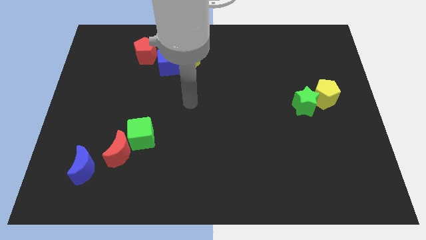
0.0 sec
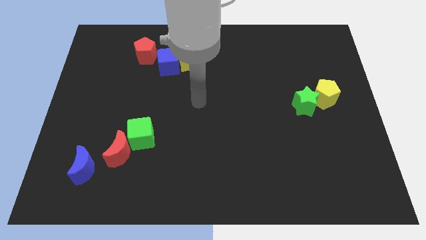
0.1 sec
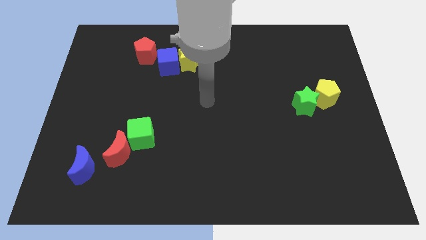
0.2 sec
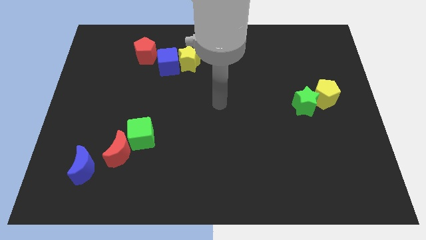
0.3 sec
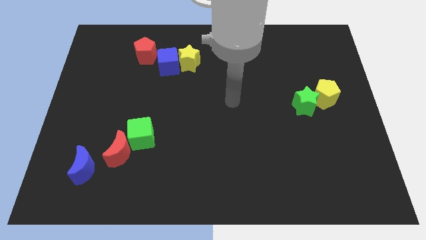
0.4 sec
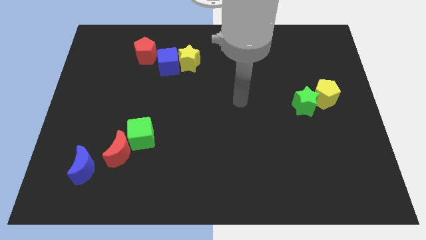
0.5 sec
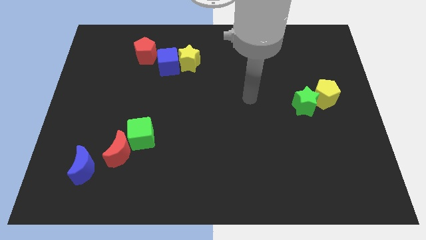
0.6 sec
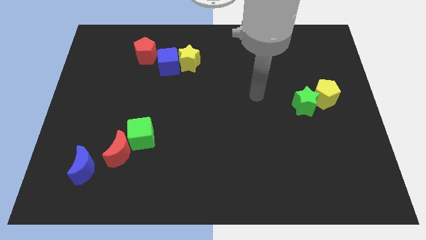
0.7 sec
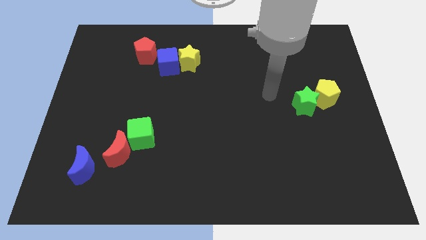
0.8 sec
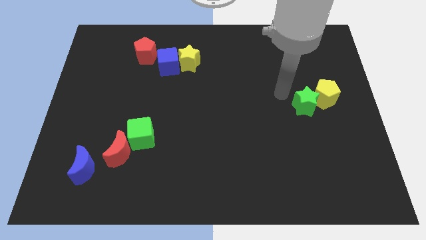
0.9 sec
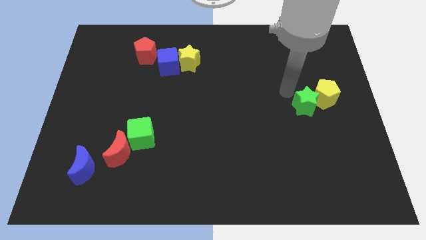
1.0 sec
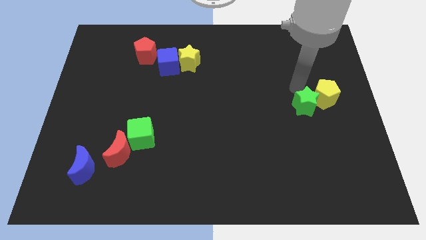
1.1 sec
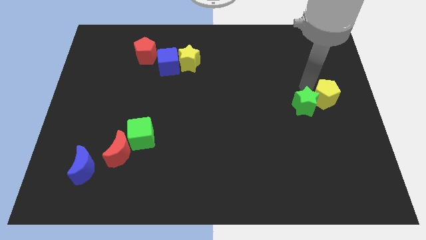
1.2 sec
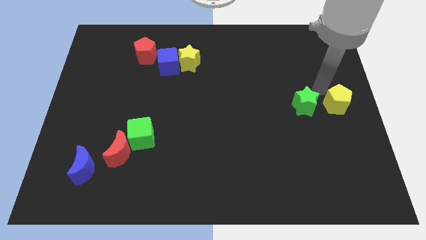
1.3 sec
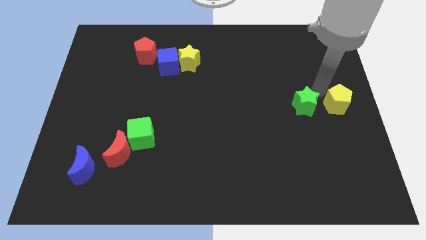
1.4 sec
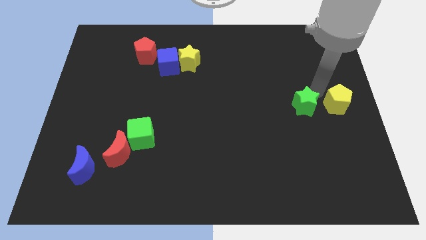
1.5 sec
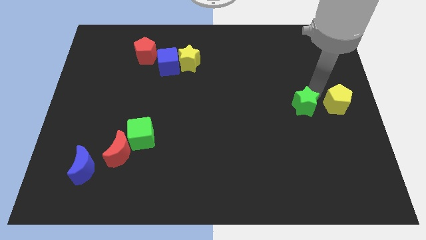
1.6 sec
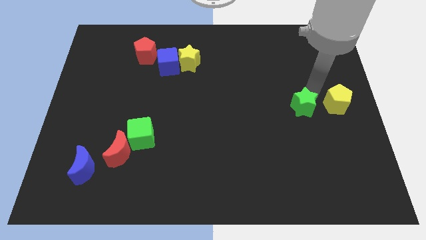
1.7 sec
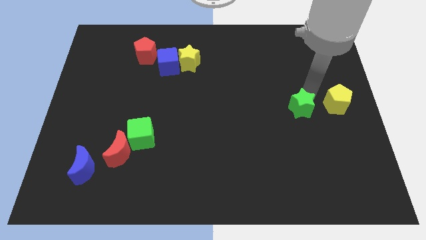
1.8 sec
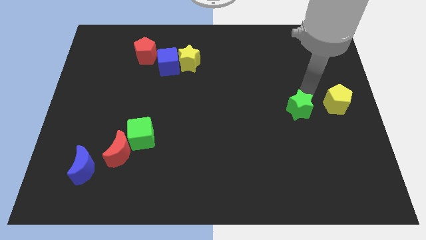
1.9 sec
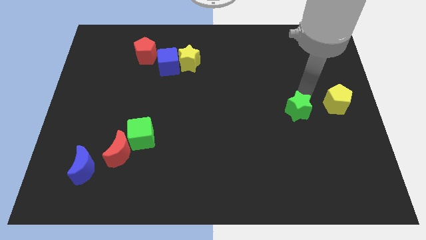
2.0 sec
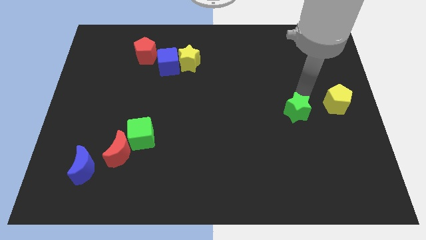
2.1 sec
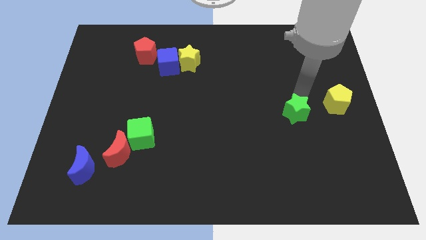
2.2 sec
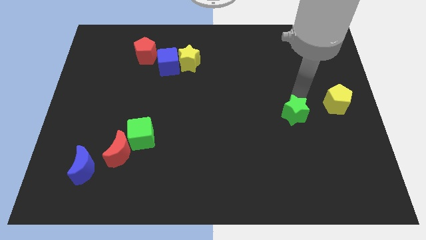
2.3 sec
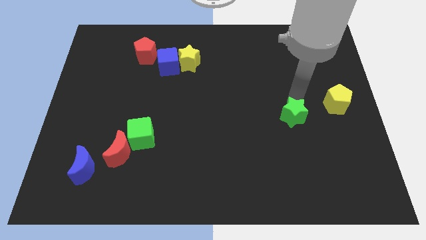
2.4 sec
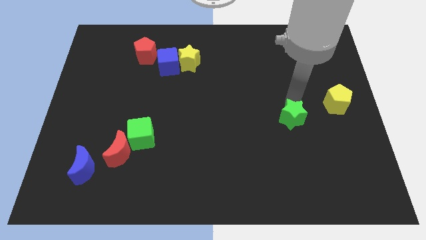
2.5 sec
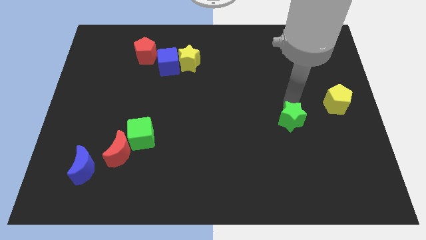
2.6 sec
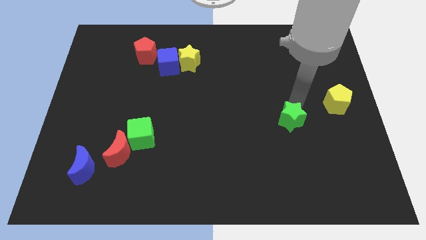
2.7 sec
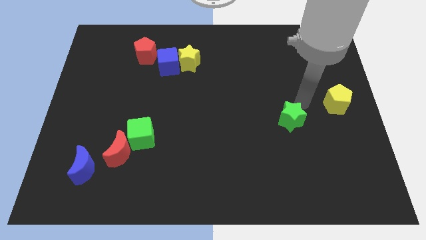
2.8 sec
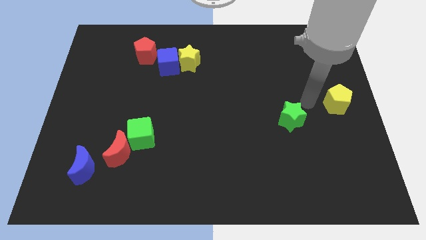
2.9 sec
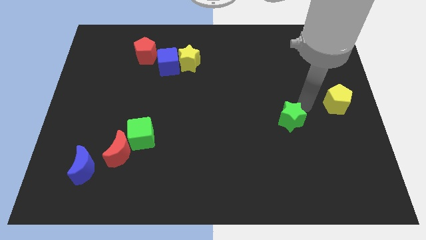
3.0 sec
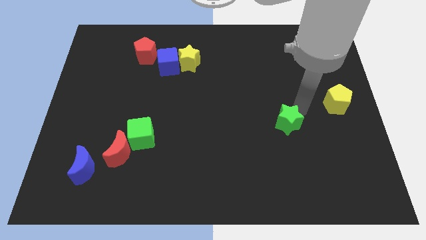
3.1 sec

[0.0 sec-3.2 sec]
slide the green star somewhat downwards and left diagonally

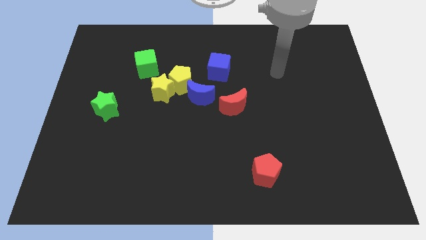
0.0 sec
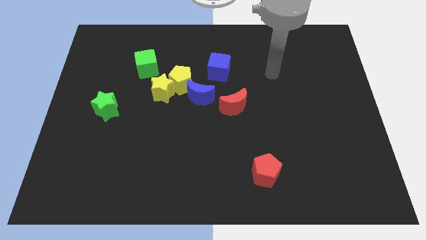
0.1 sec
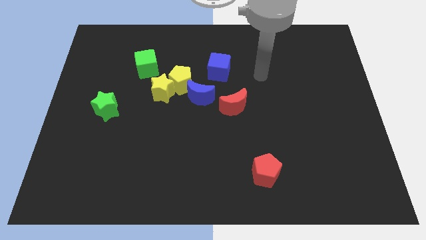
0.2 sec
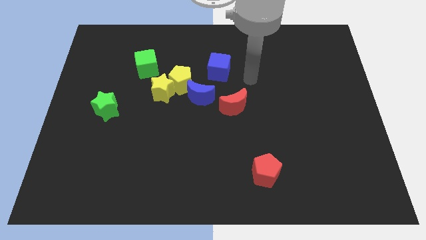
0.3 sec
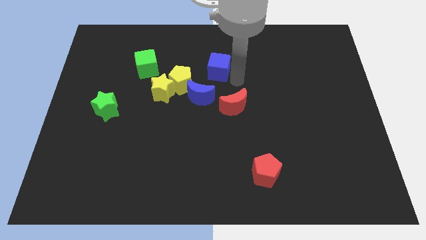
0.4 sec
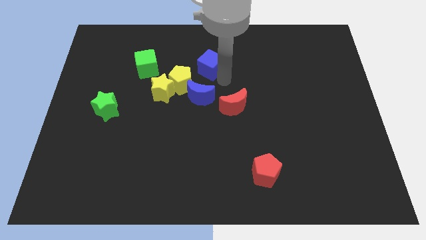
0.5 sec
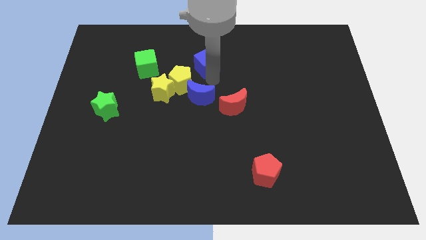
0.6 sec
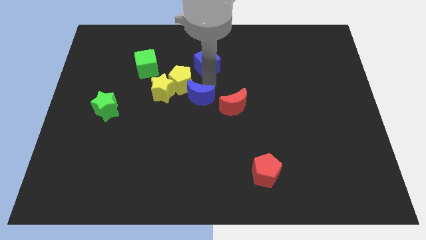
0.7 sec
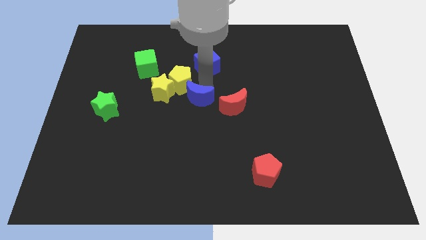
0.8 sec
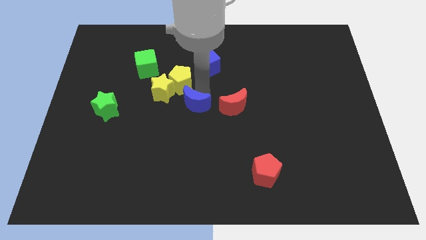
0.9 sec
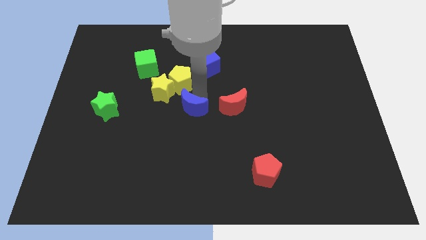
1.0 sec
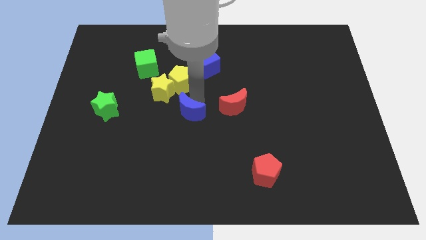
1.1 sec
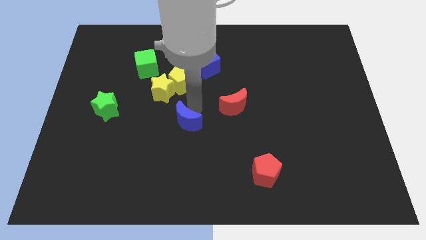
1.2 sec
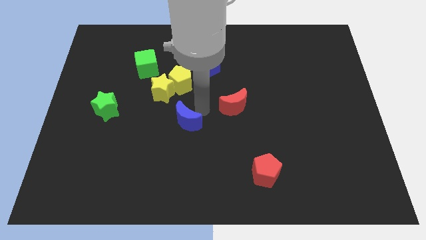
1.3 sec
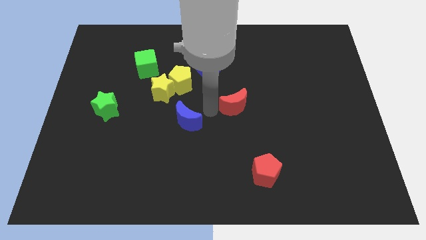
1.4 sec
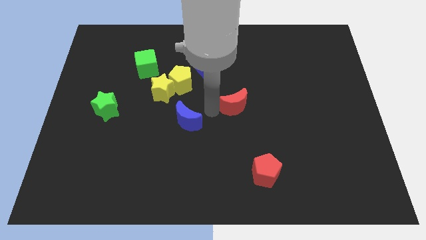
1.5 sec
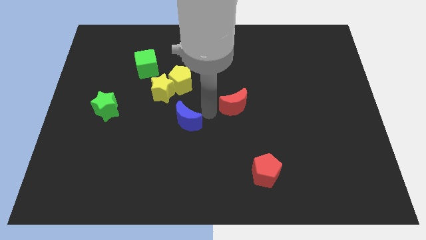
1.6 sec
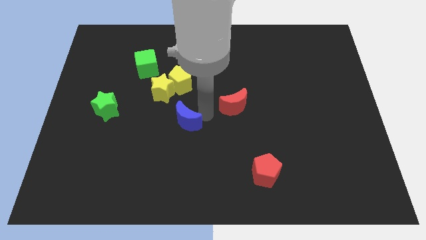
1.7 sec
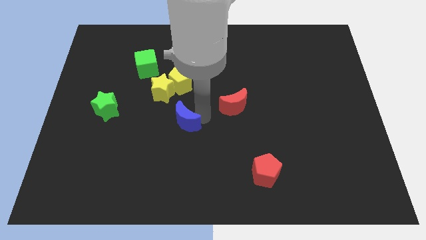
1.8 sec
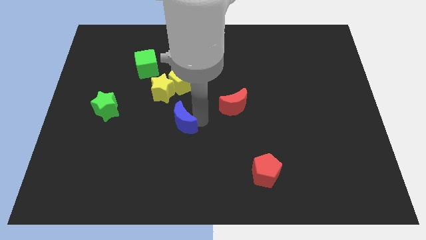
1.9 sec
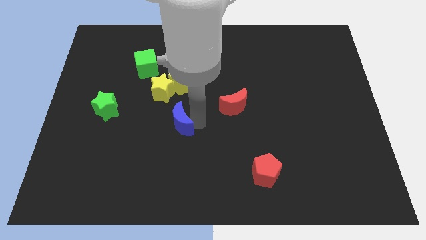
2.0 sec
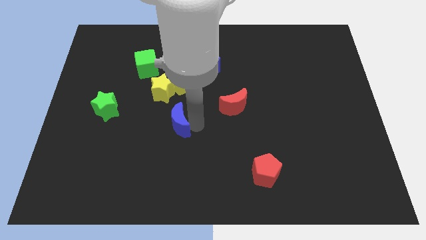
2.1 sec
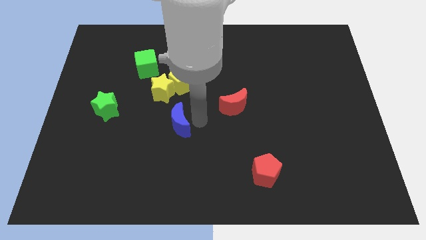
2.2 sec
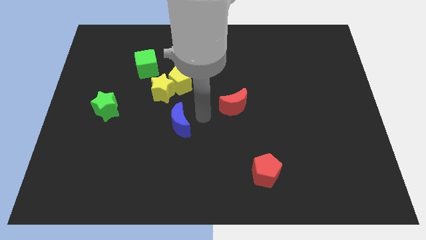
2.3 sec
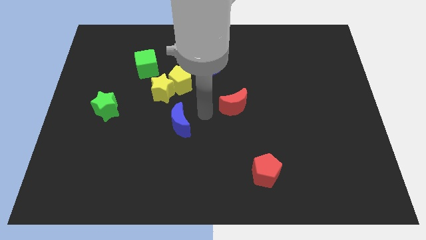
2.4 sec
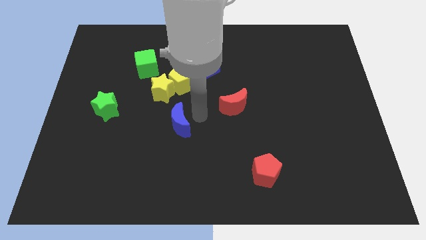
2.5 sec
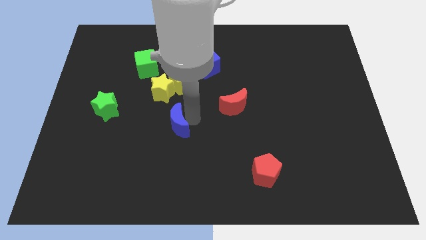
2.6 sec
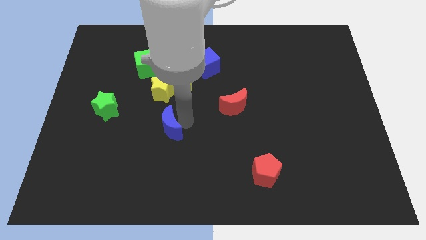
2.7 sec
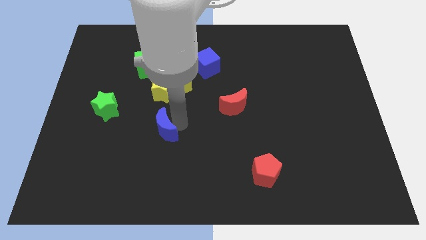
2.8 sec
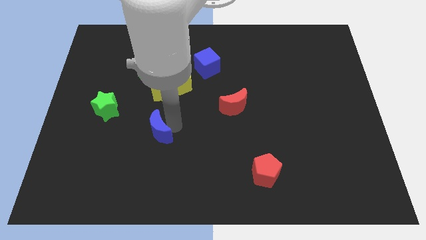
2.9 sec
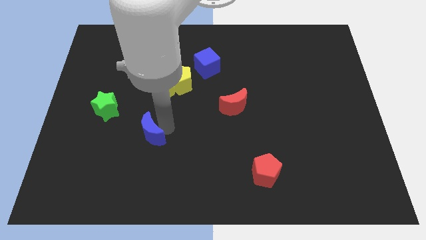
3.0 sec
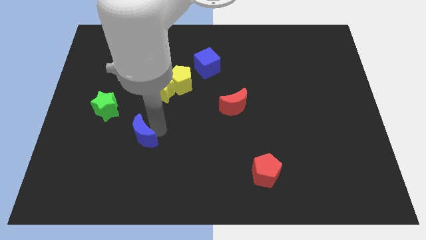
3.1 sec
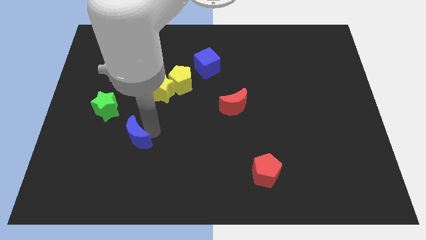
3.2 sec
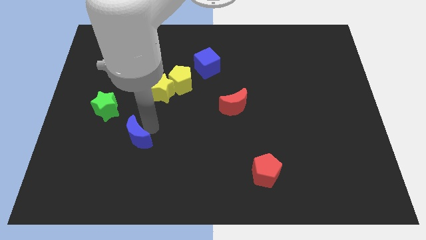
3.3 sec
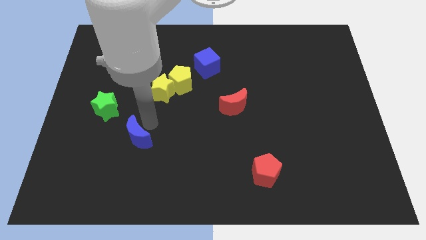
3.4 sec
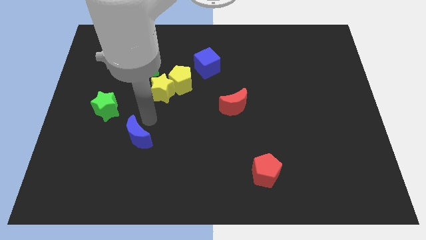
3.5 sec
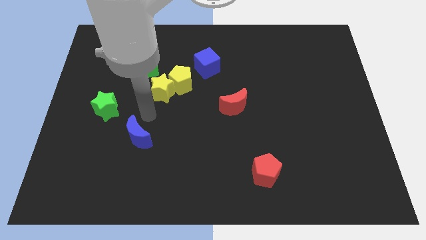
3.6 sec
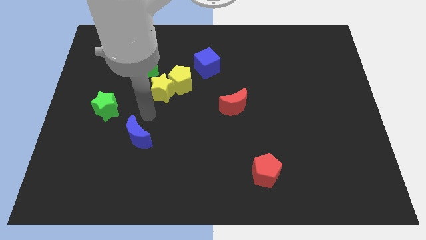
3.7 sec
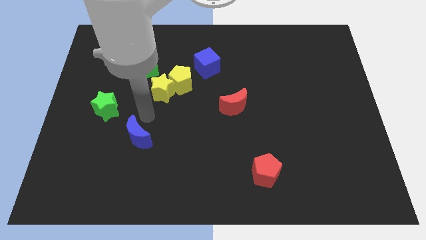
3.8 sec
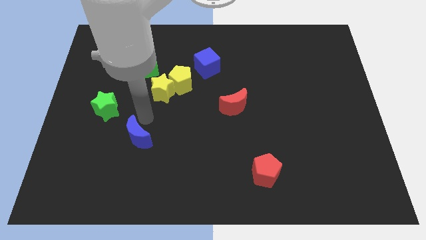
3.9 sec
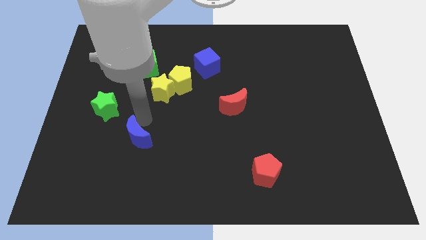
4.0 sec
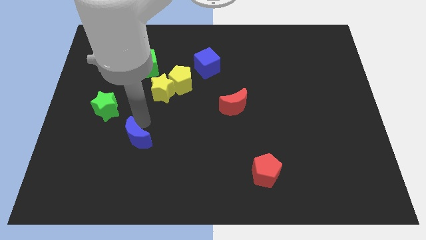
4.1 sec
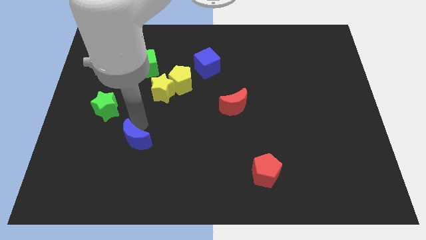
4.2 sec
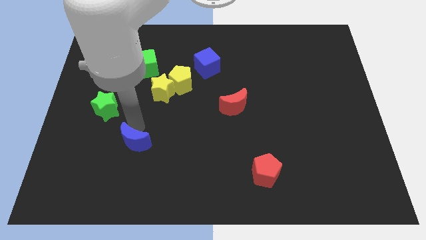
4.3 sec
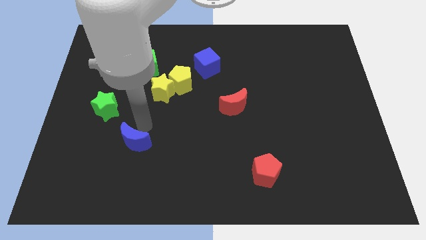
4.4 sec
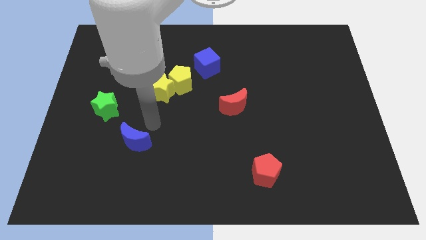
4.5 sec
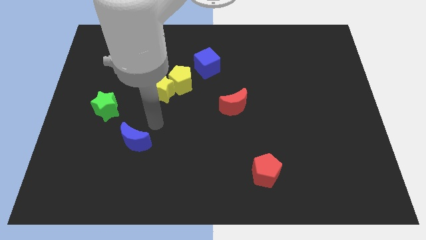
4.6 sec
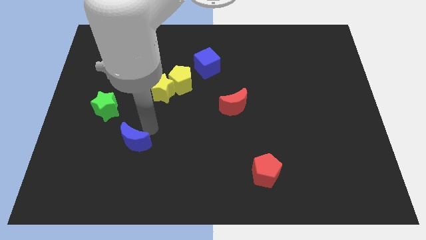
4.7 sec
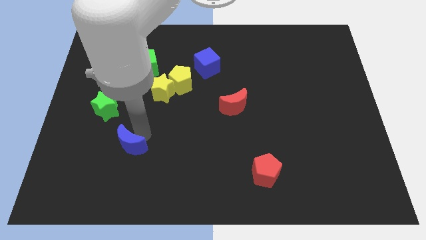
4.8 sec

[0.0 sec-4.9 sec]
push the blue moon diagonally down and to the left
